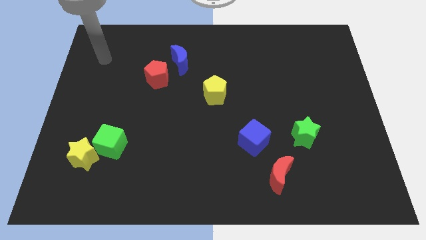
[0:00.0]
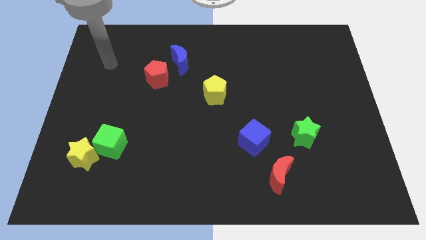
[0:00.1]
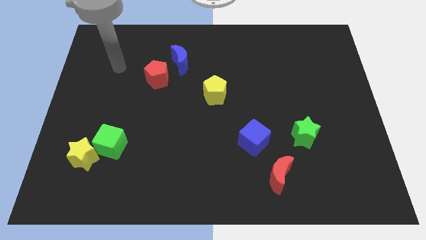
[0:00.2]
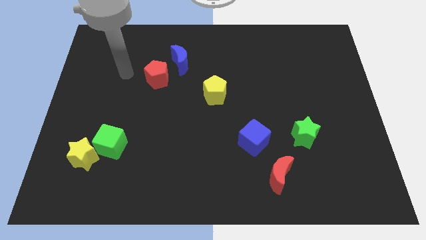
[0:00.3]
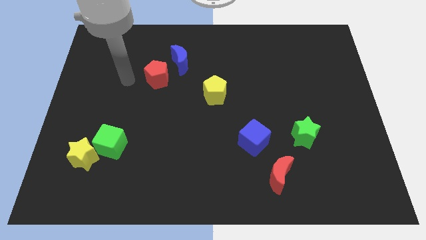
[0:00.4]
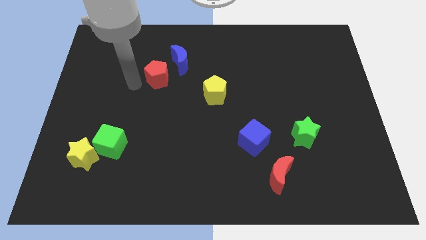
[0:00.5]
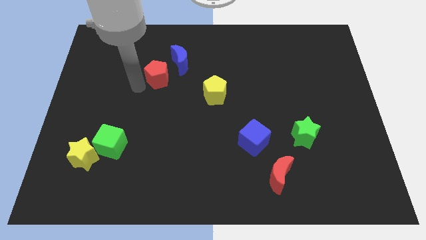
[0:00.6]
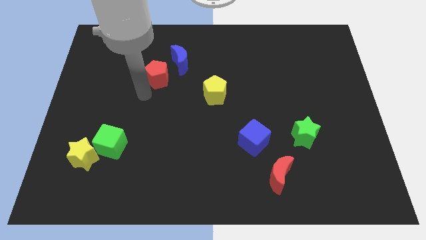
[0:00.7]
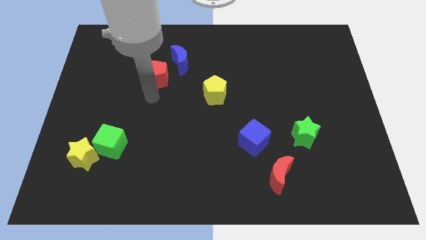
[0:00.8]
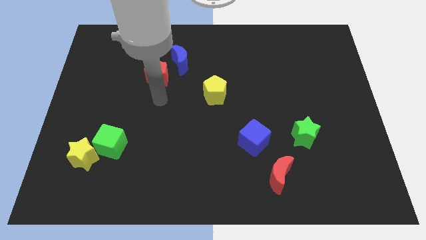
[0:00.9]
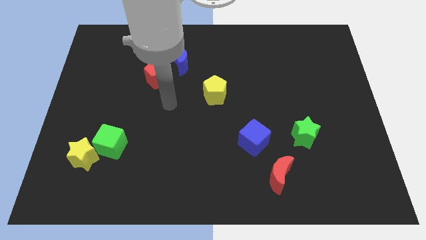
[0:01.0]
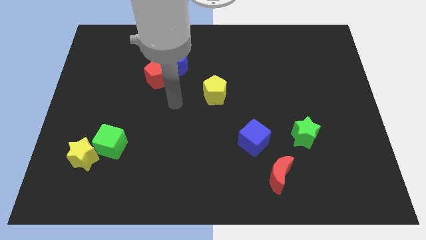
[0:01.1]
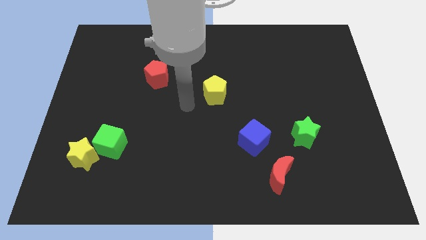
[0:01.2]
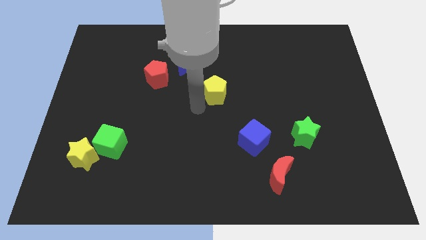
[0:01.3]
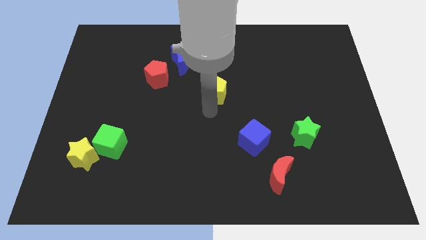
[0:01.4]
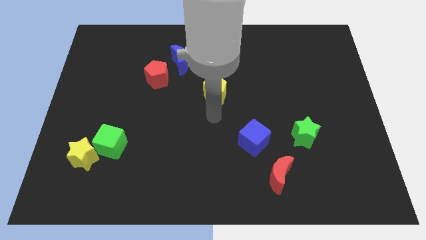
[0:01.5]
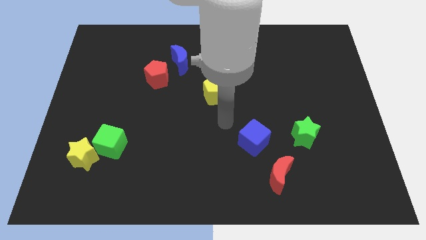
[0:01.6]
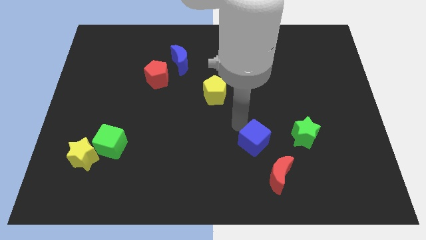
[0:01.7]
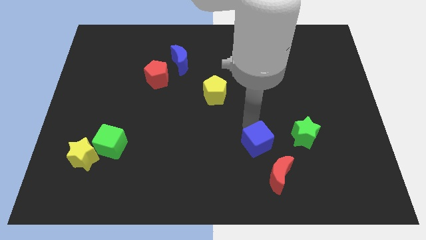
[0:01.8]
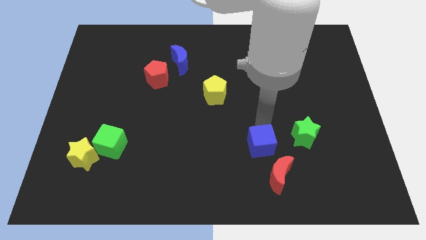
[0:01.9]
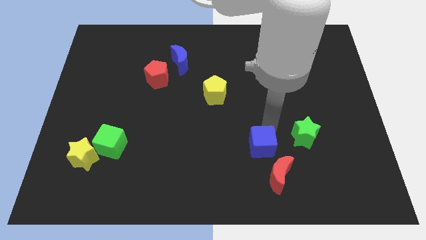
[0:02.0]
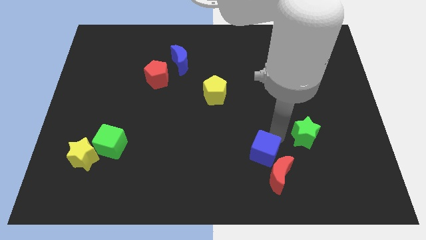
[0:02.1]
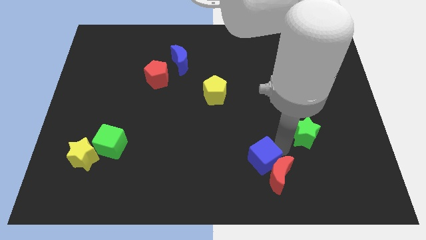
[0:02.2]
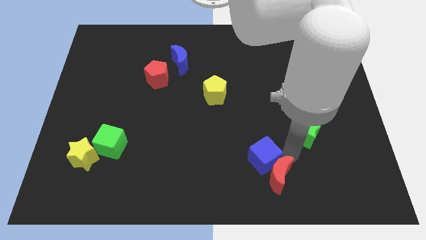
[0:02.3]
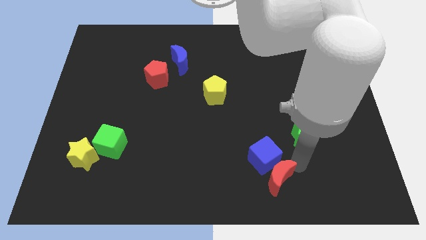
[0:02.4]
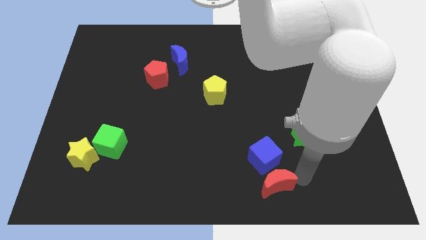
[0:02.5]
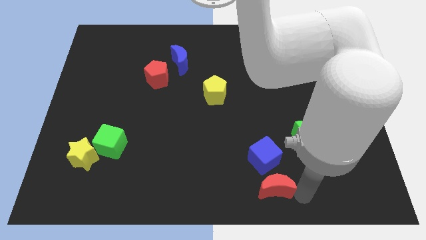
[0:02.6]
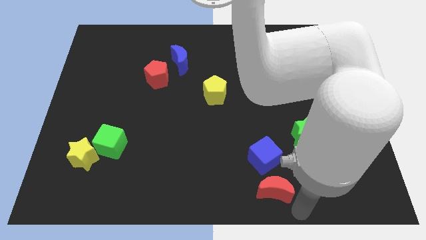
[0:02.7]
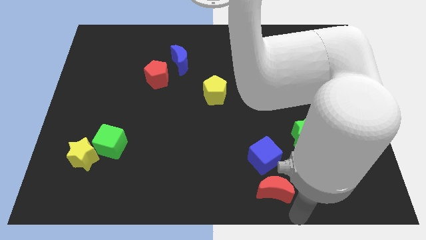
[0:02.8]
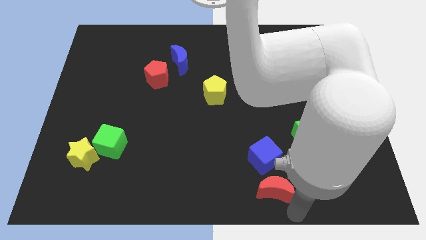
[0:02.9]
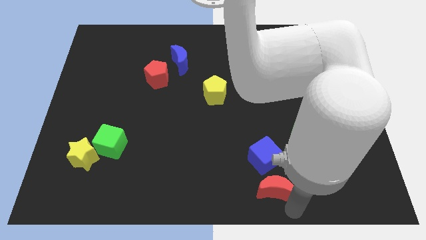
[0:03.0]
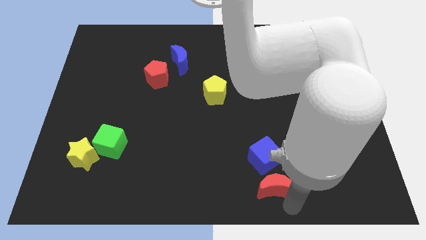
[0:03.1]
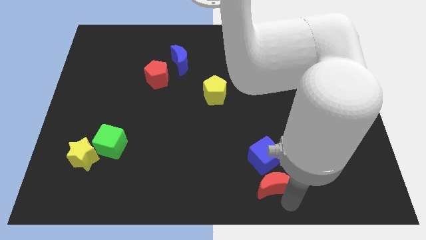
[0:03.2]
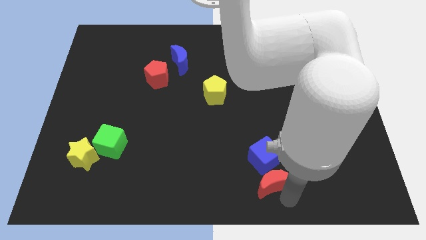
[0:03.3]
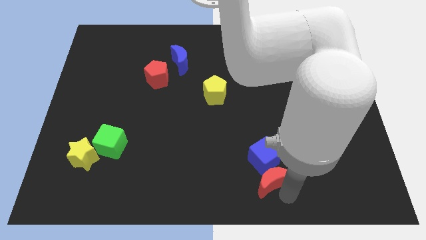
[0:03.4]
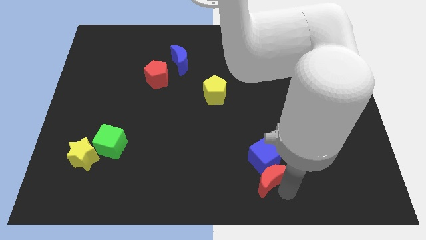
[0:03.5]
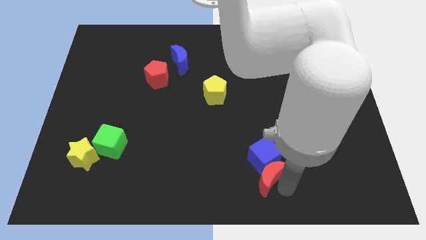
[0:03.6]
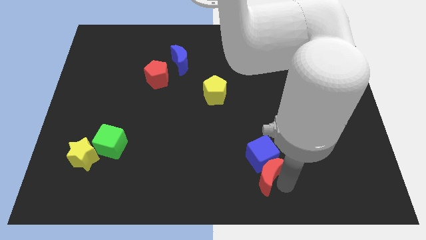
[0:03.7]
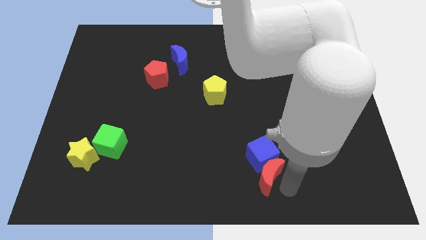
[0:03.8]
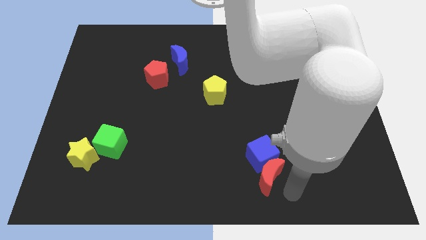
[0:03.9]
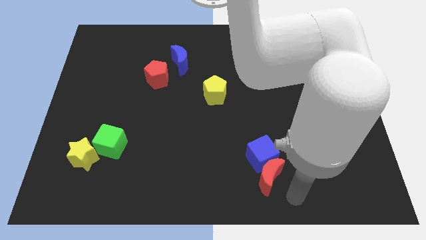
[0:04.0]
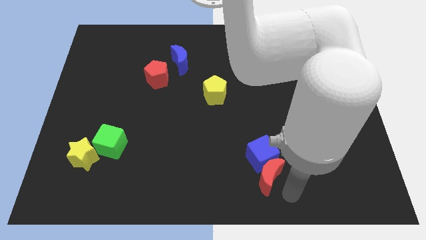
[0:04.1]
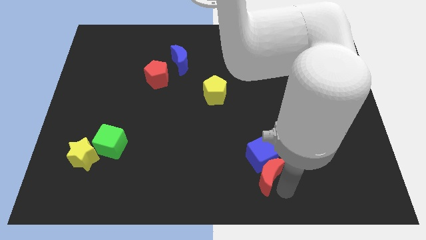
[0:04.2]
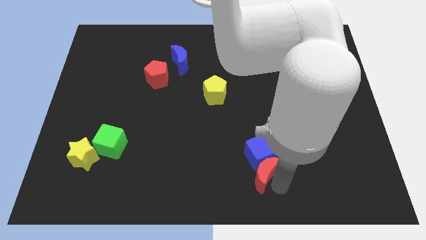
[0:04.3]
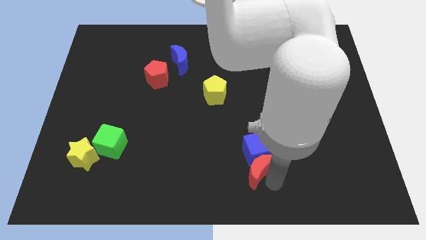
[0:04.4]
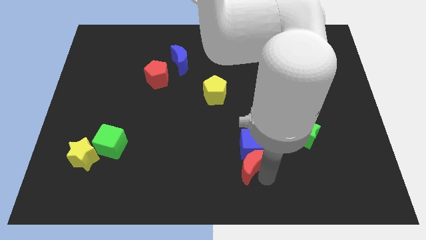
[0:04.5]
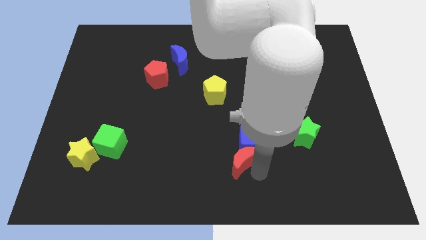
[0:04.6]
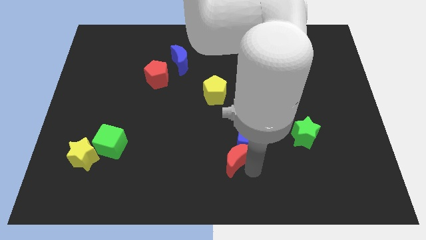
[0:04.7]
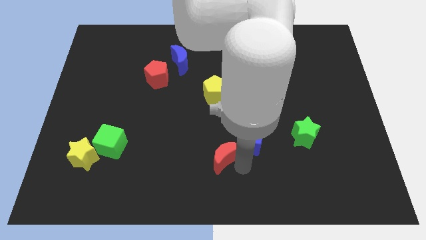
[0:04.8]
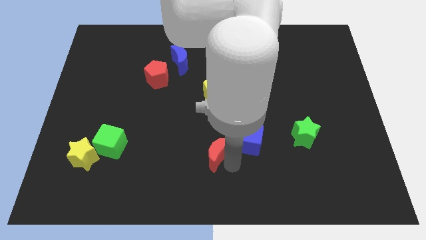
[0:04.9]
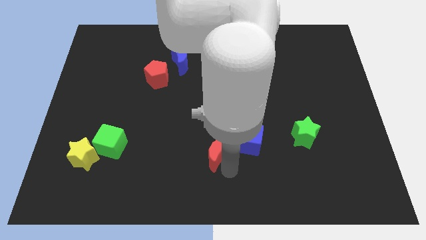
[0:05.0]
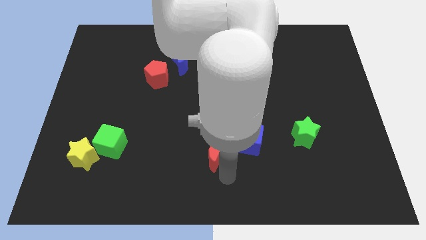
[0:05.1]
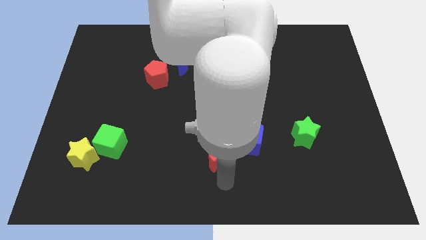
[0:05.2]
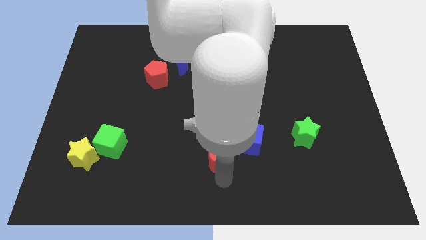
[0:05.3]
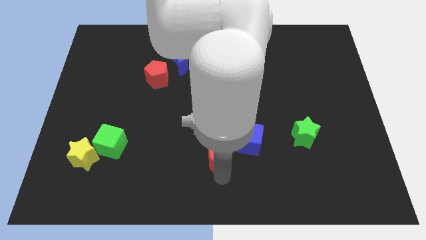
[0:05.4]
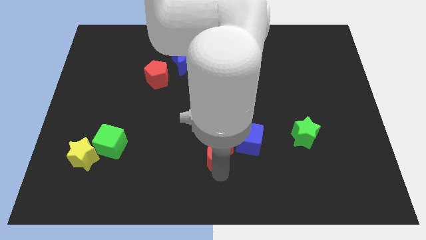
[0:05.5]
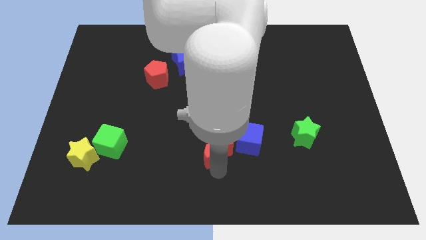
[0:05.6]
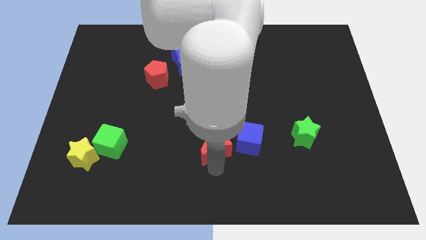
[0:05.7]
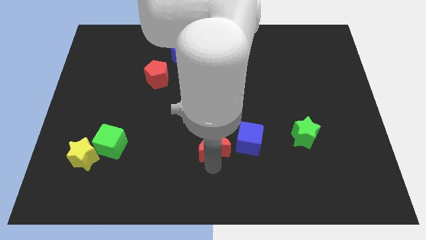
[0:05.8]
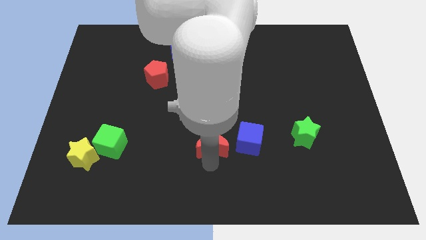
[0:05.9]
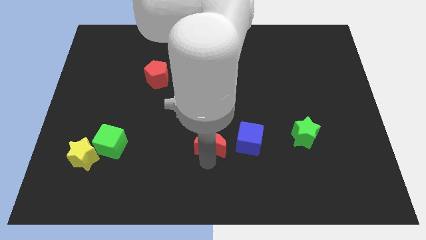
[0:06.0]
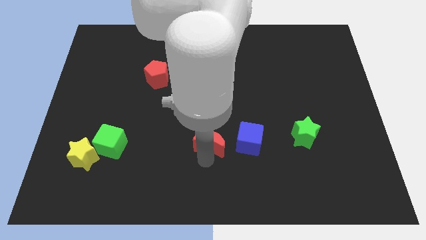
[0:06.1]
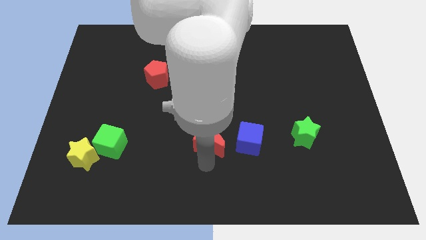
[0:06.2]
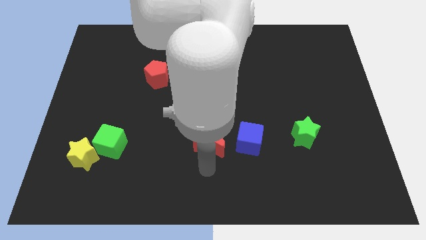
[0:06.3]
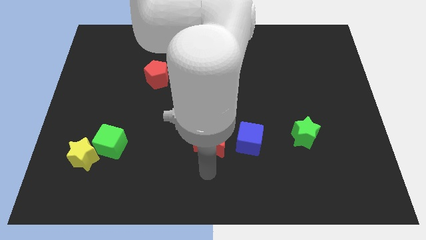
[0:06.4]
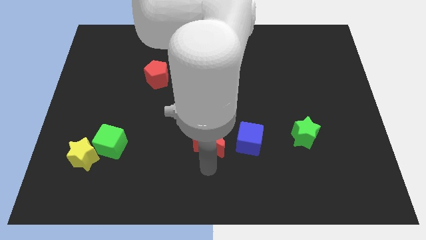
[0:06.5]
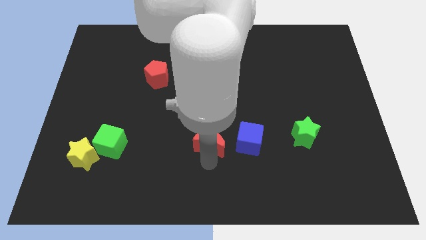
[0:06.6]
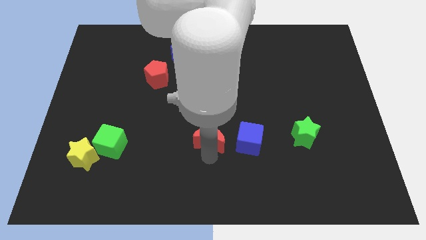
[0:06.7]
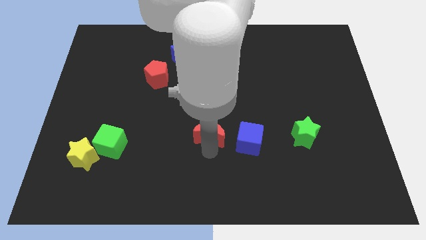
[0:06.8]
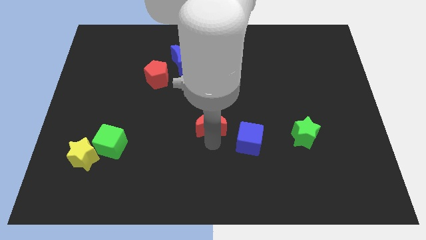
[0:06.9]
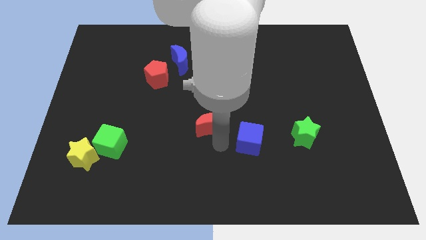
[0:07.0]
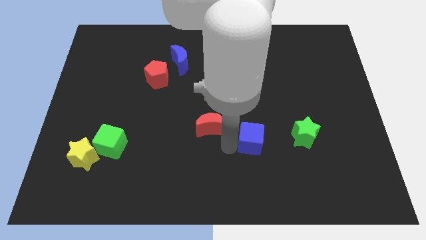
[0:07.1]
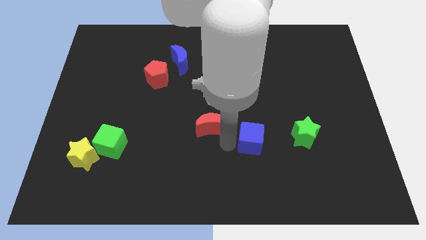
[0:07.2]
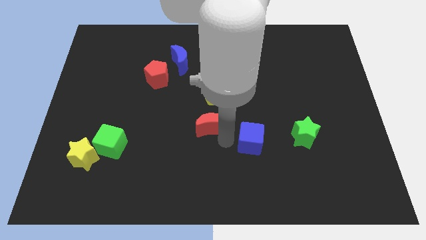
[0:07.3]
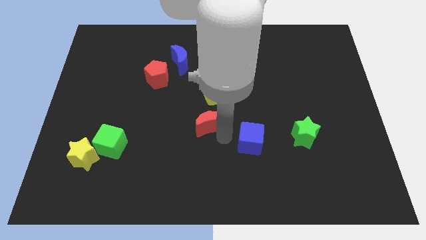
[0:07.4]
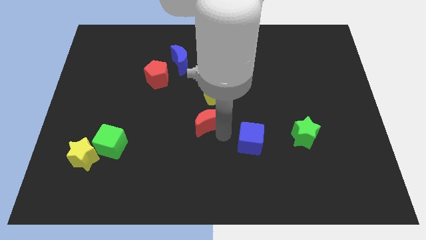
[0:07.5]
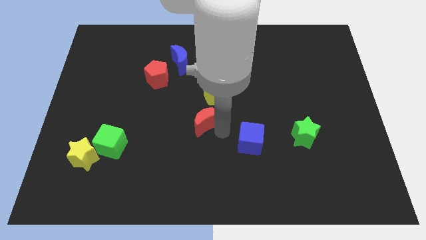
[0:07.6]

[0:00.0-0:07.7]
push the red moon up and to the left

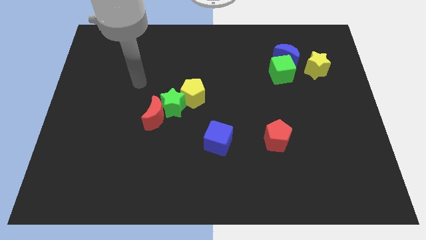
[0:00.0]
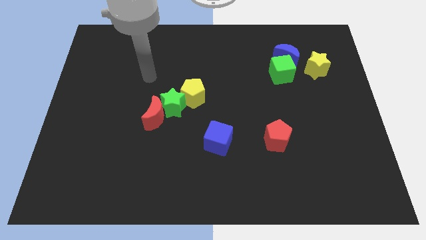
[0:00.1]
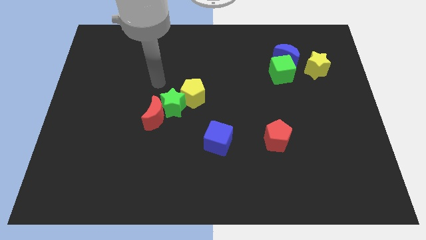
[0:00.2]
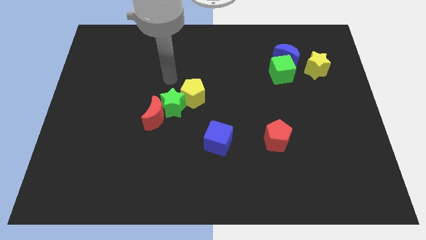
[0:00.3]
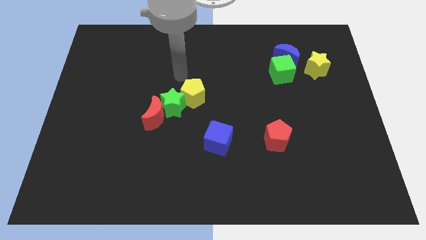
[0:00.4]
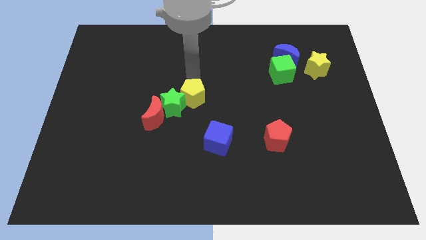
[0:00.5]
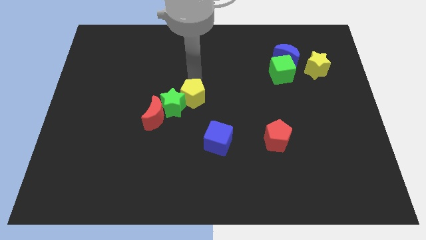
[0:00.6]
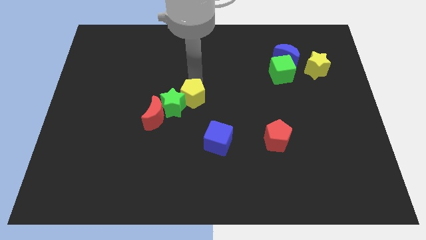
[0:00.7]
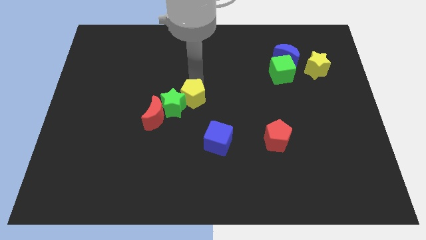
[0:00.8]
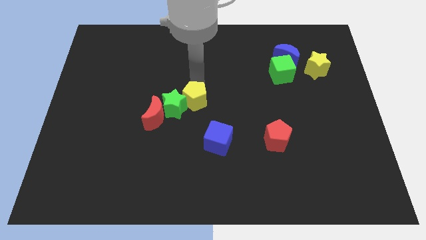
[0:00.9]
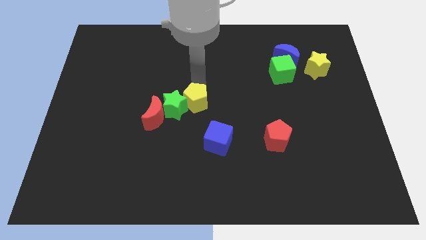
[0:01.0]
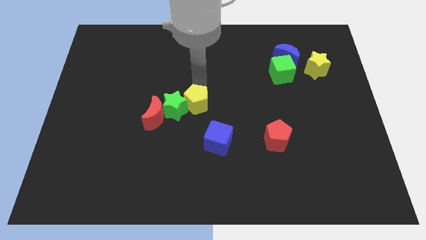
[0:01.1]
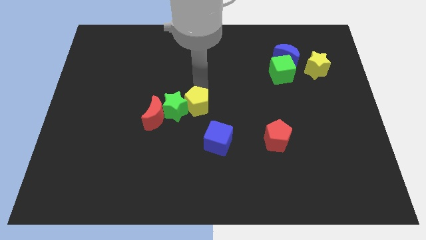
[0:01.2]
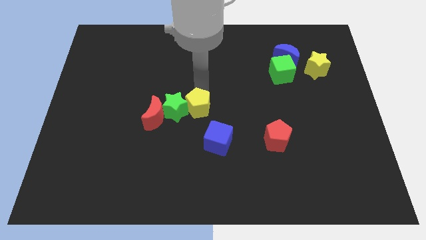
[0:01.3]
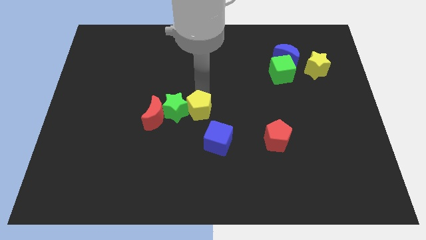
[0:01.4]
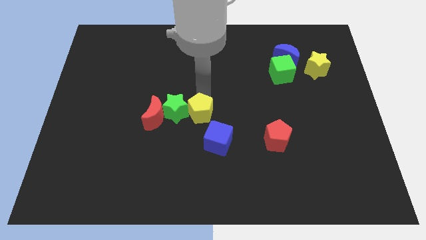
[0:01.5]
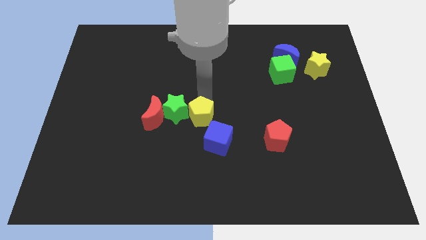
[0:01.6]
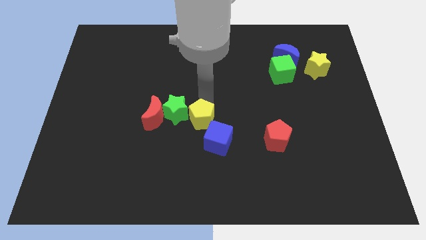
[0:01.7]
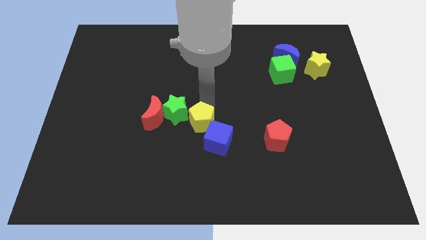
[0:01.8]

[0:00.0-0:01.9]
slide the yellow pentagon a bit down
